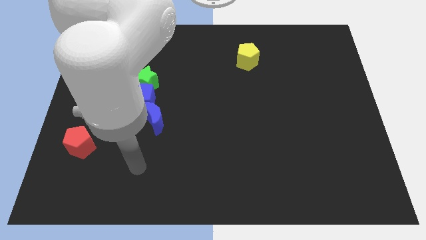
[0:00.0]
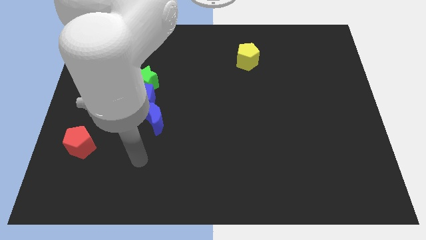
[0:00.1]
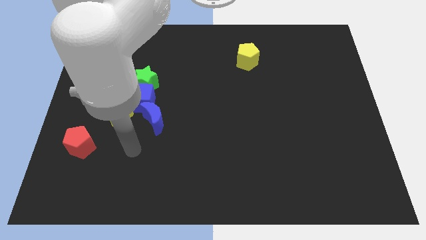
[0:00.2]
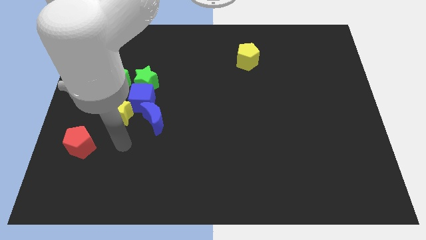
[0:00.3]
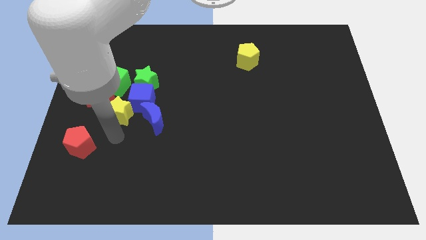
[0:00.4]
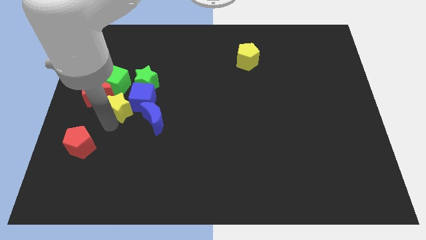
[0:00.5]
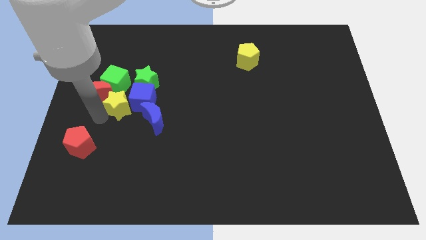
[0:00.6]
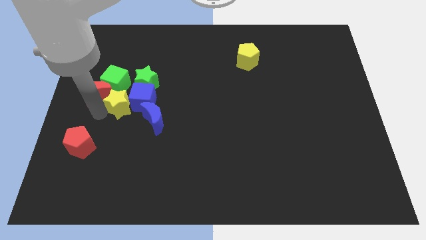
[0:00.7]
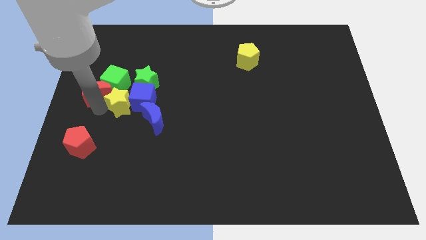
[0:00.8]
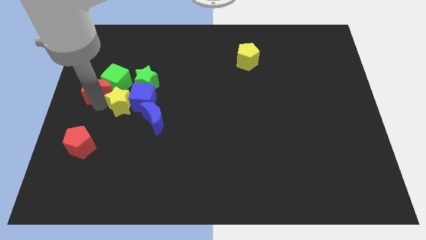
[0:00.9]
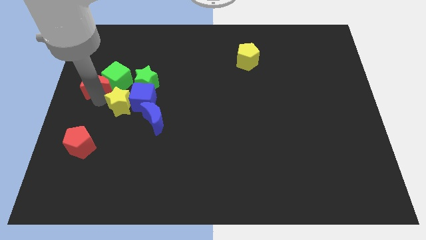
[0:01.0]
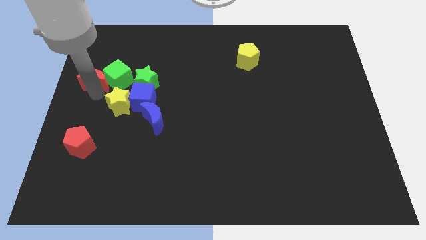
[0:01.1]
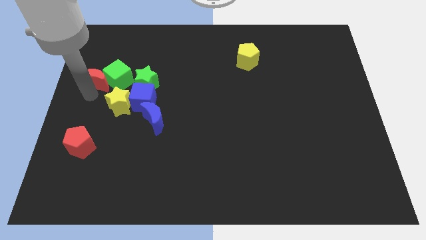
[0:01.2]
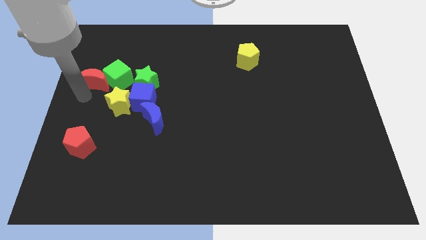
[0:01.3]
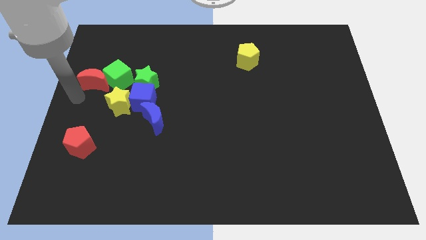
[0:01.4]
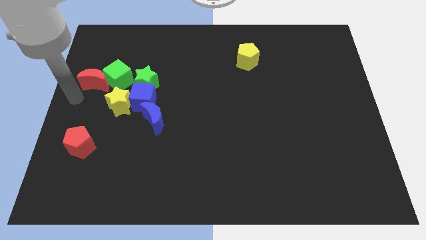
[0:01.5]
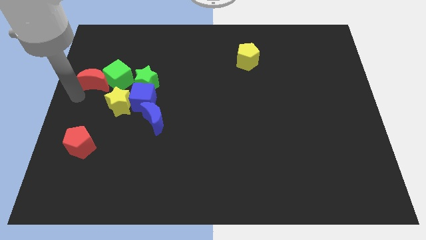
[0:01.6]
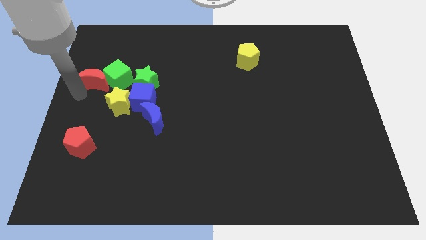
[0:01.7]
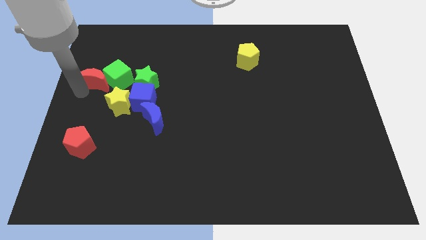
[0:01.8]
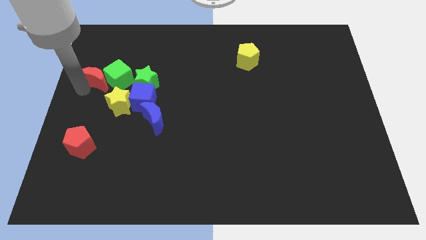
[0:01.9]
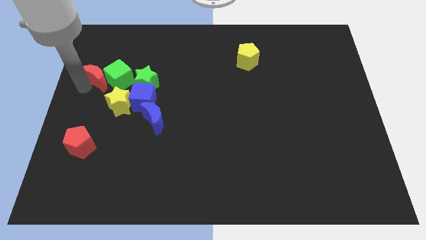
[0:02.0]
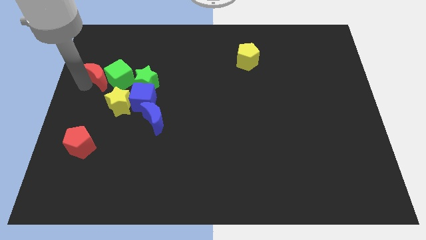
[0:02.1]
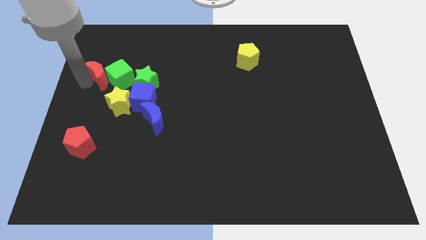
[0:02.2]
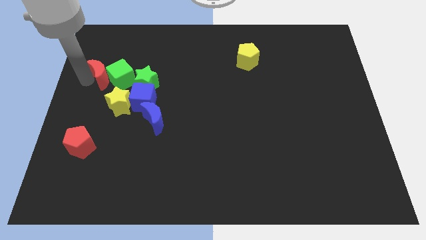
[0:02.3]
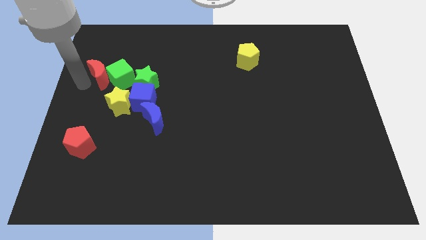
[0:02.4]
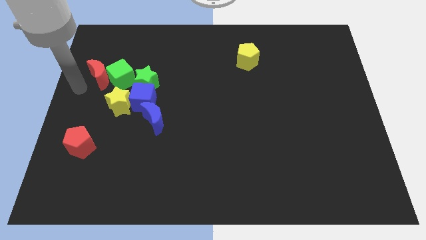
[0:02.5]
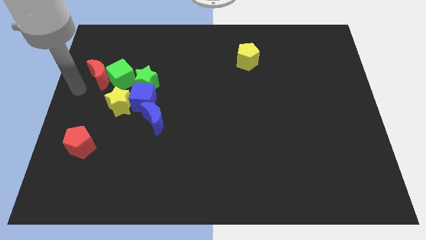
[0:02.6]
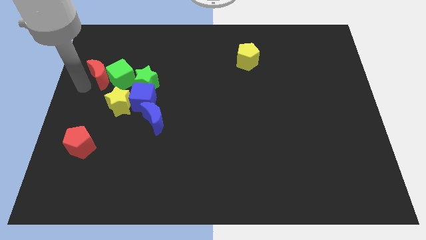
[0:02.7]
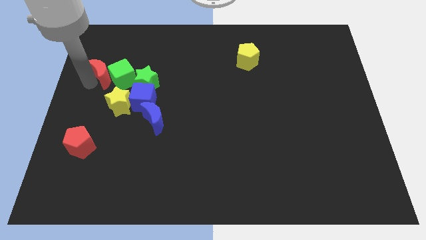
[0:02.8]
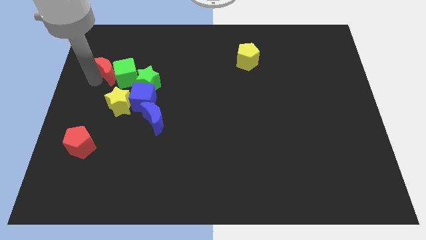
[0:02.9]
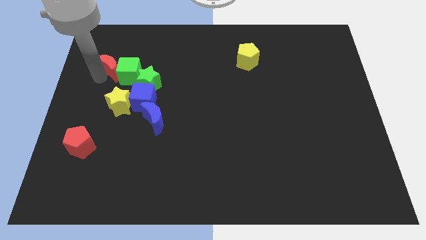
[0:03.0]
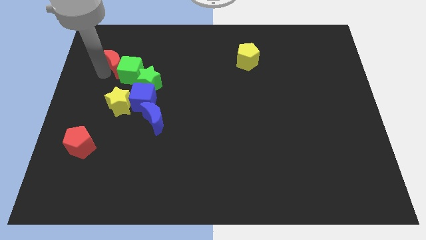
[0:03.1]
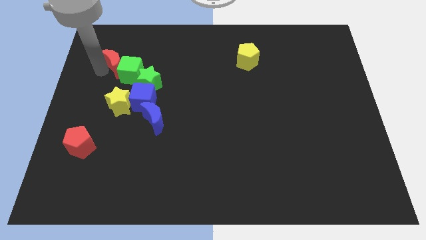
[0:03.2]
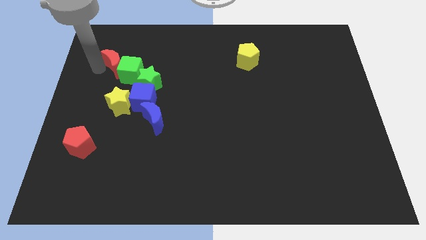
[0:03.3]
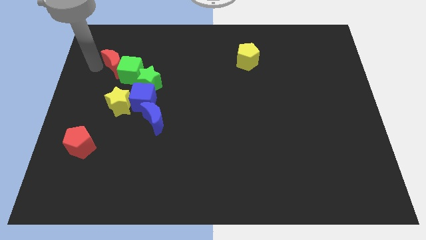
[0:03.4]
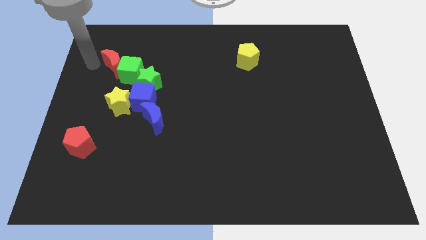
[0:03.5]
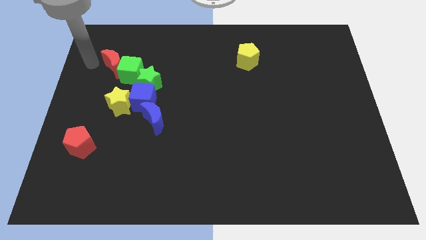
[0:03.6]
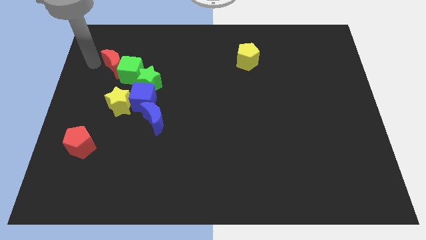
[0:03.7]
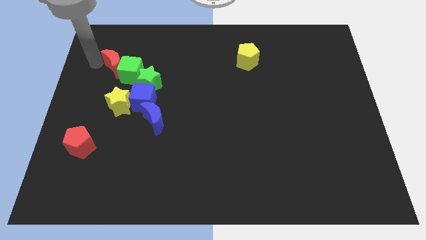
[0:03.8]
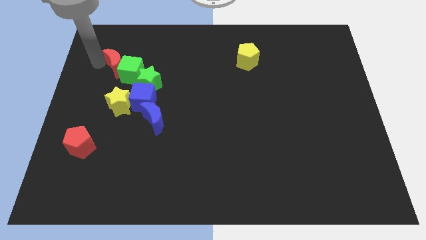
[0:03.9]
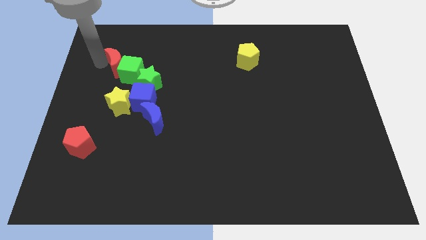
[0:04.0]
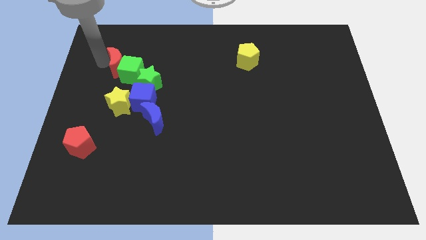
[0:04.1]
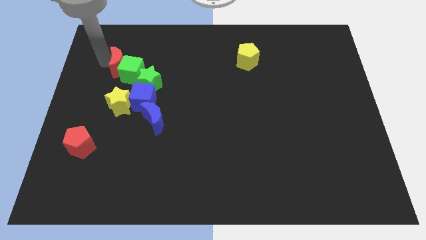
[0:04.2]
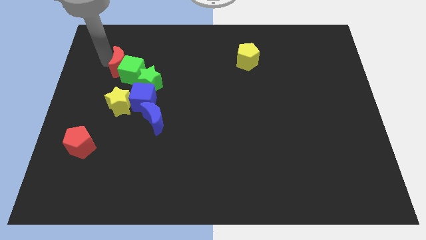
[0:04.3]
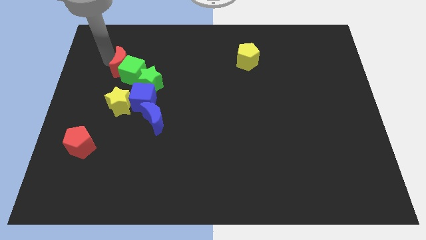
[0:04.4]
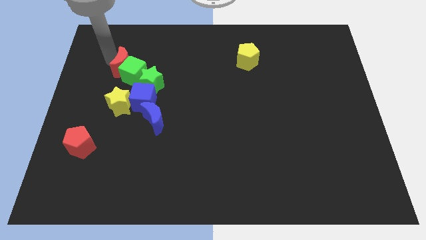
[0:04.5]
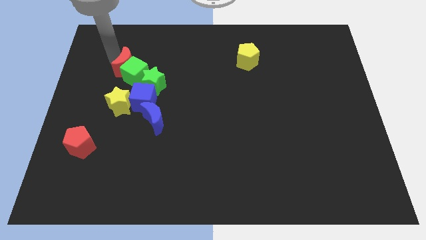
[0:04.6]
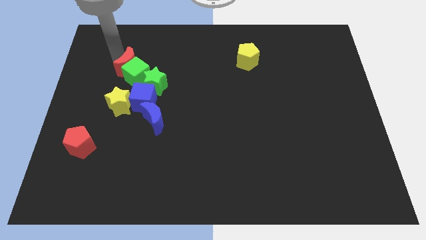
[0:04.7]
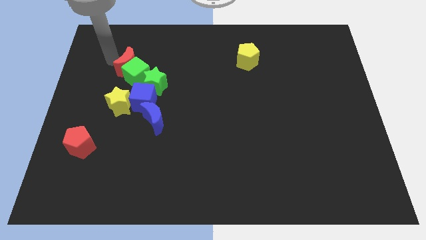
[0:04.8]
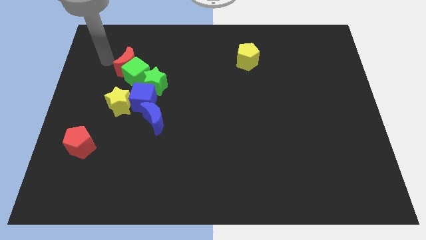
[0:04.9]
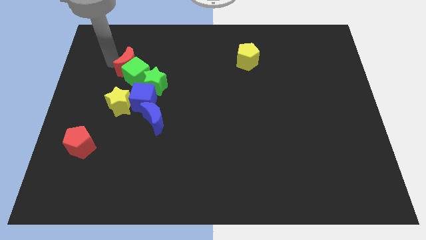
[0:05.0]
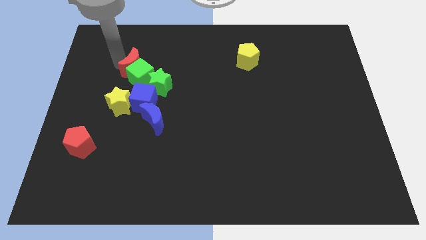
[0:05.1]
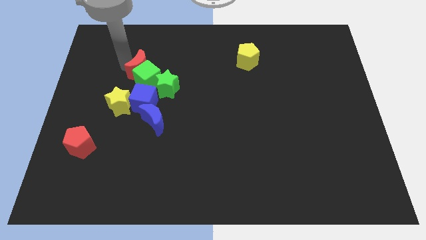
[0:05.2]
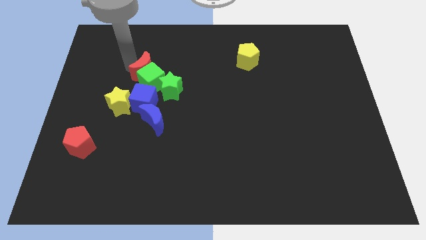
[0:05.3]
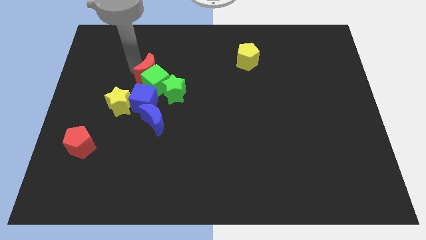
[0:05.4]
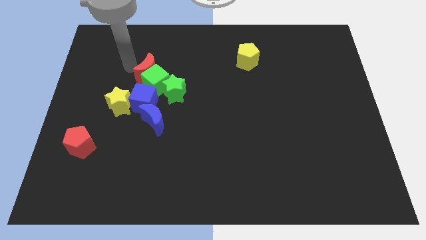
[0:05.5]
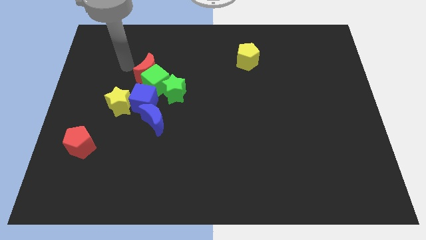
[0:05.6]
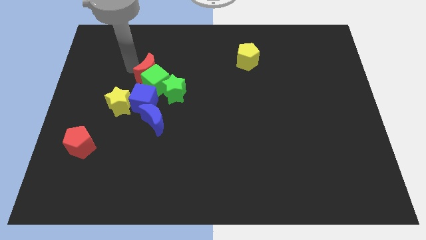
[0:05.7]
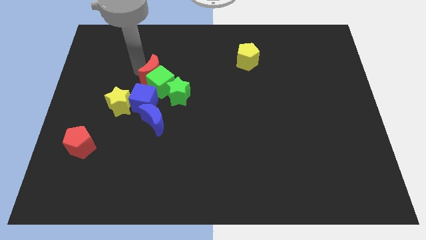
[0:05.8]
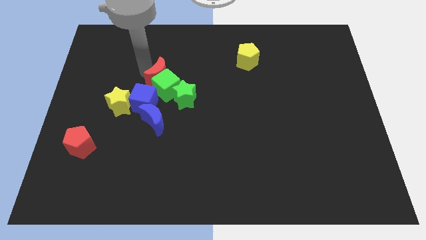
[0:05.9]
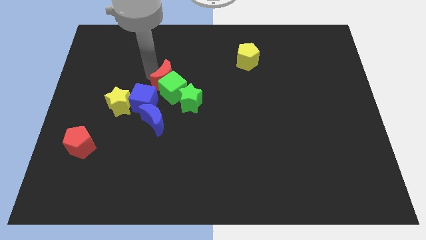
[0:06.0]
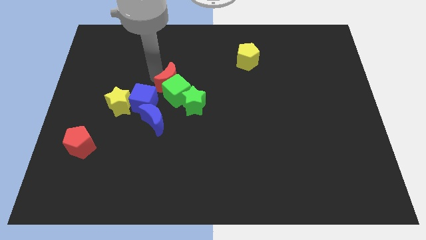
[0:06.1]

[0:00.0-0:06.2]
push the red moon to the middle

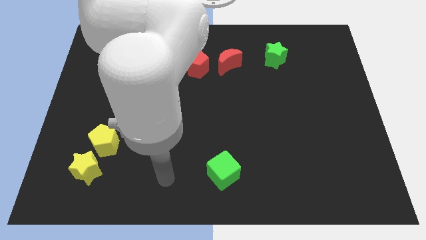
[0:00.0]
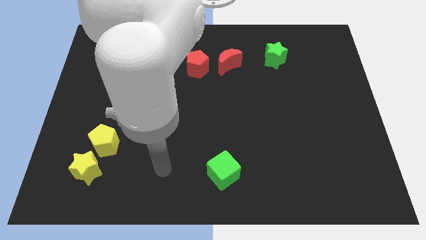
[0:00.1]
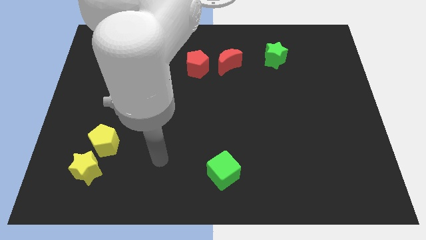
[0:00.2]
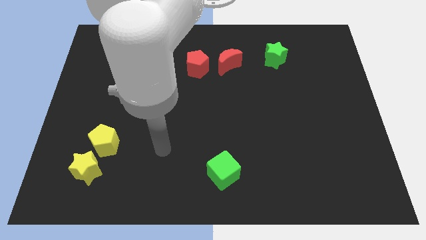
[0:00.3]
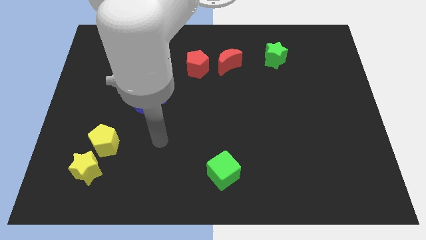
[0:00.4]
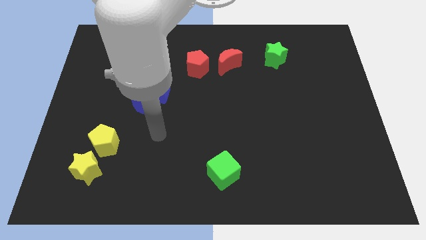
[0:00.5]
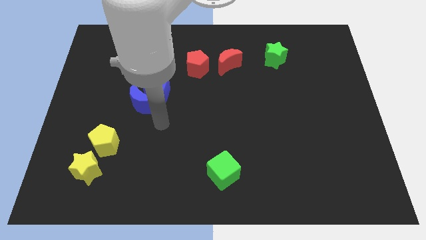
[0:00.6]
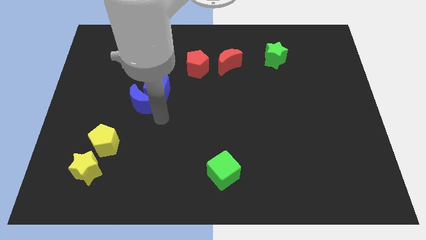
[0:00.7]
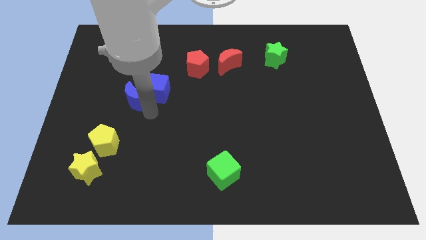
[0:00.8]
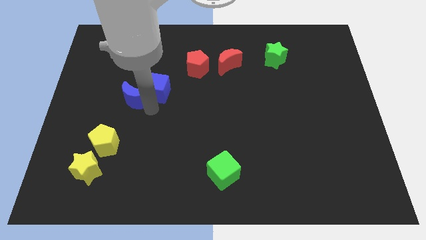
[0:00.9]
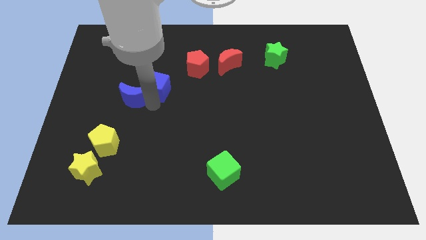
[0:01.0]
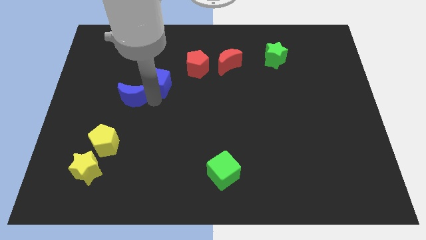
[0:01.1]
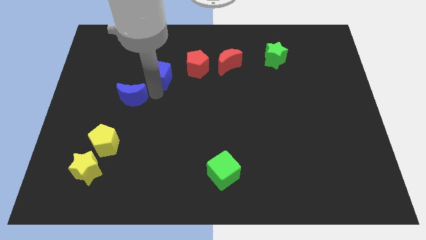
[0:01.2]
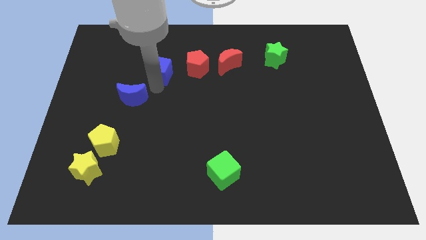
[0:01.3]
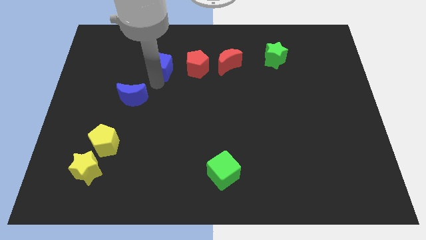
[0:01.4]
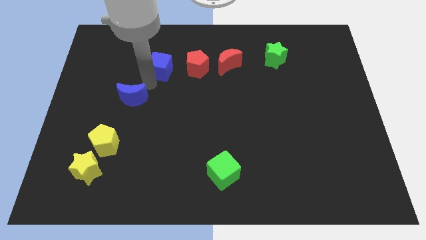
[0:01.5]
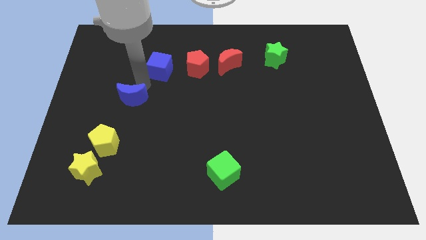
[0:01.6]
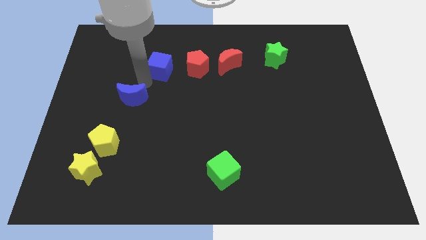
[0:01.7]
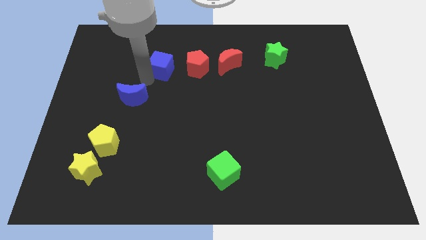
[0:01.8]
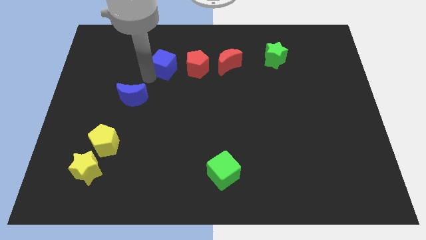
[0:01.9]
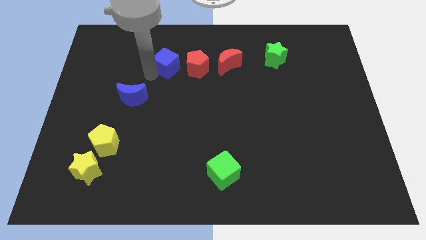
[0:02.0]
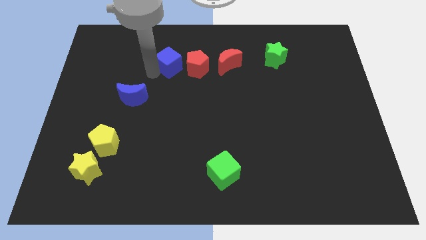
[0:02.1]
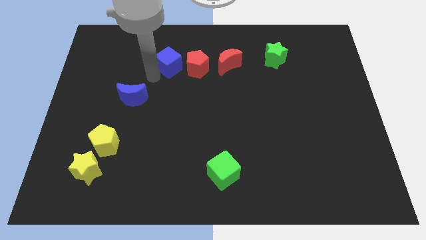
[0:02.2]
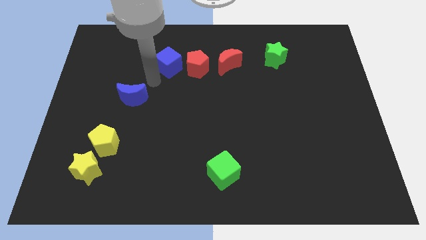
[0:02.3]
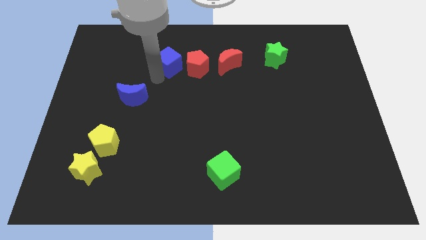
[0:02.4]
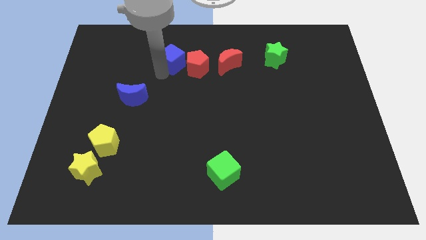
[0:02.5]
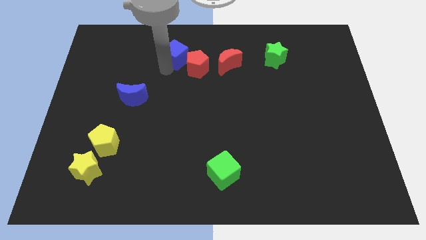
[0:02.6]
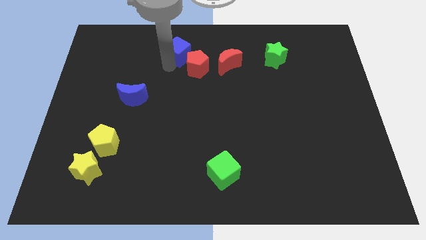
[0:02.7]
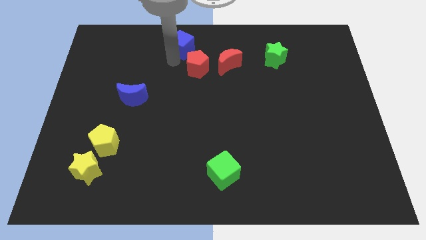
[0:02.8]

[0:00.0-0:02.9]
move the blue cube to the towards your base
